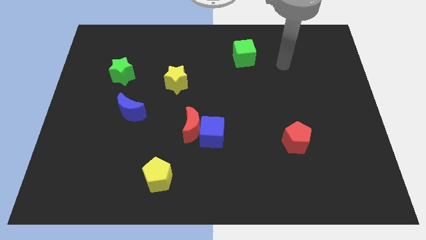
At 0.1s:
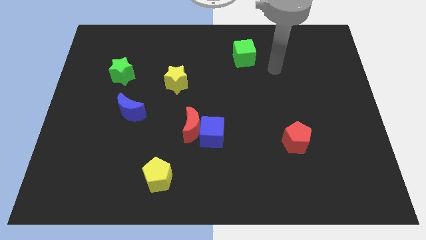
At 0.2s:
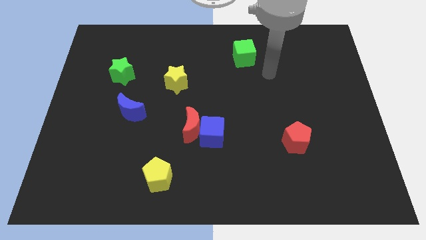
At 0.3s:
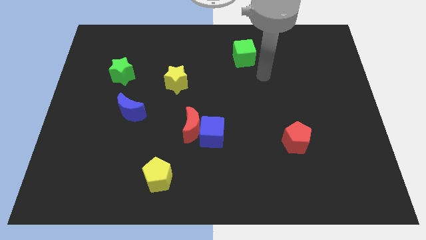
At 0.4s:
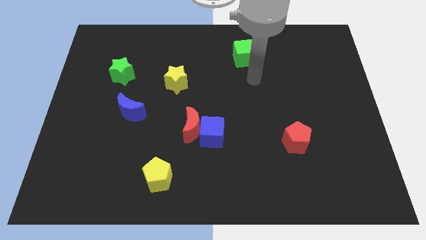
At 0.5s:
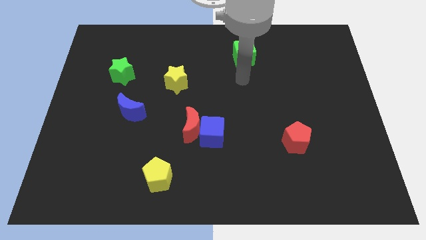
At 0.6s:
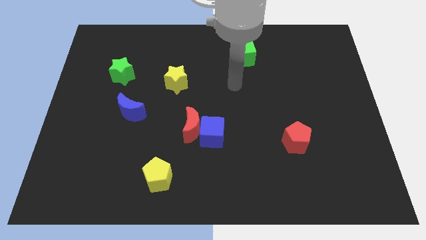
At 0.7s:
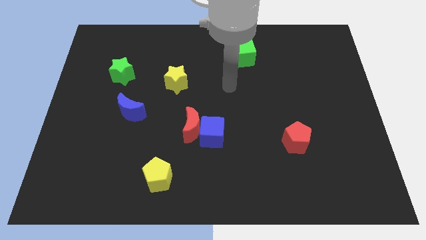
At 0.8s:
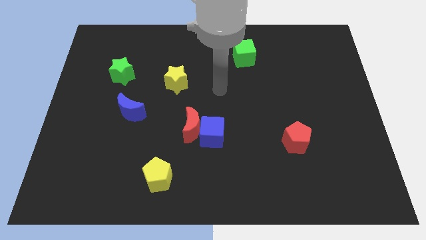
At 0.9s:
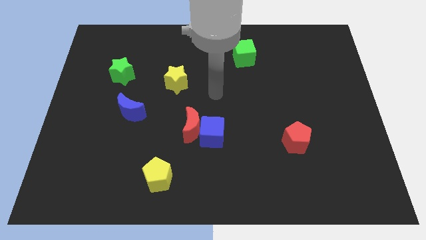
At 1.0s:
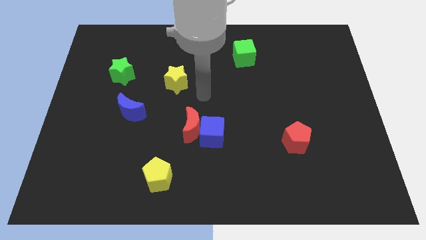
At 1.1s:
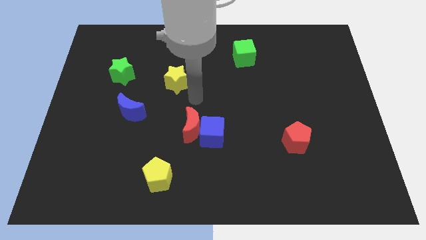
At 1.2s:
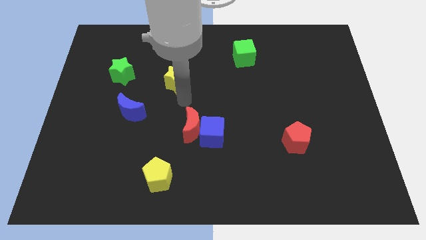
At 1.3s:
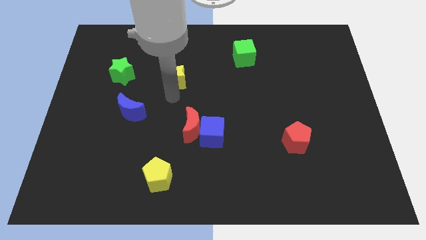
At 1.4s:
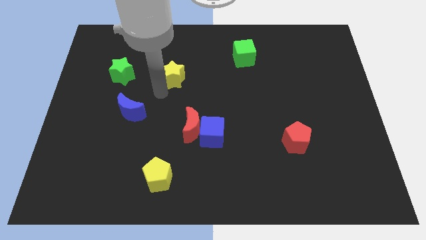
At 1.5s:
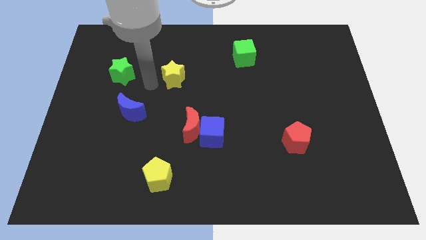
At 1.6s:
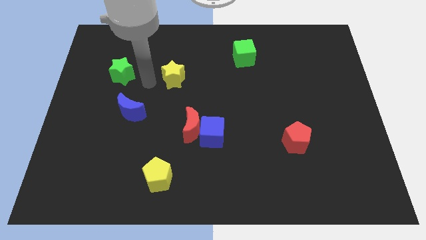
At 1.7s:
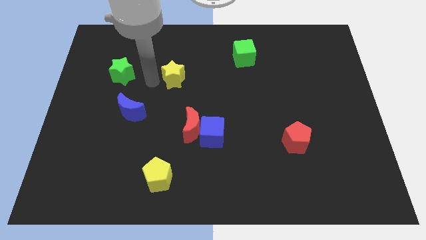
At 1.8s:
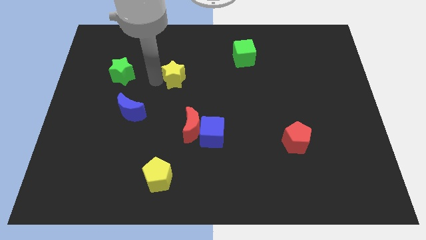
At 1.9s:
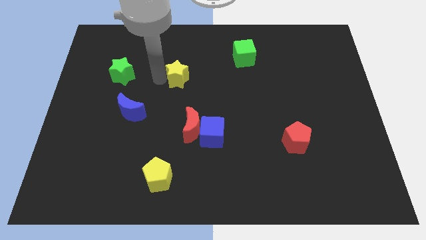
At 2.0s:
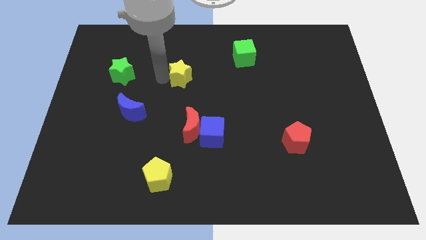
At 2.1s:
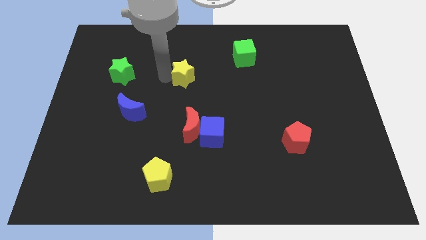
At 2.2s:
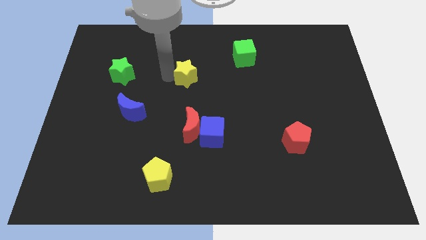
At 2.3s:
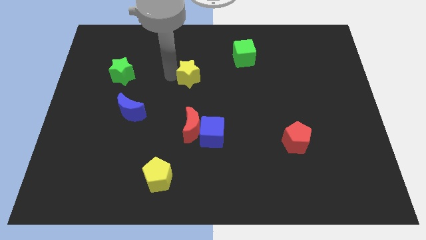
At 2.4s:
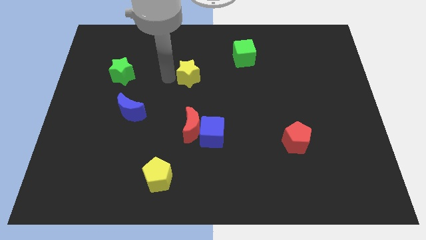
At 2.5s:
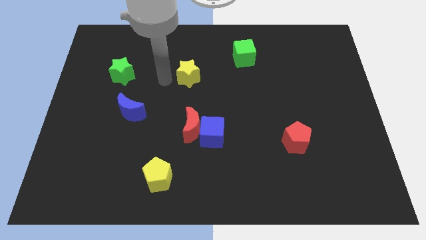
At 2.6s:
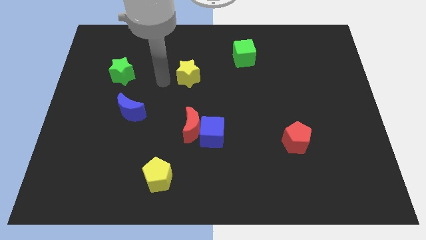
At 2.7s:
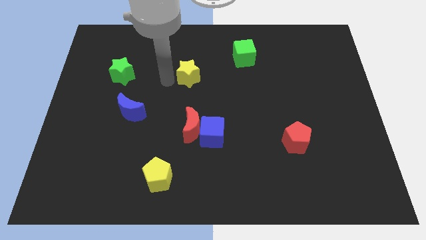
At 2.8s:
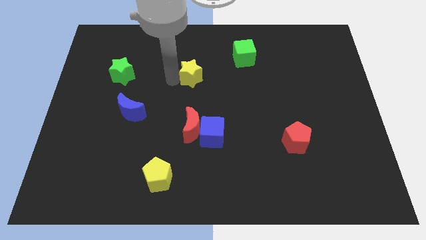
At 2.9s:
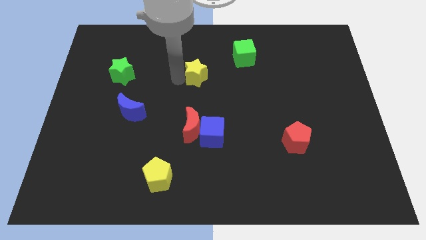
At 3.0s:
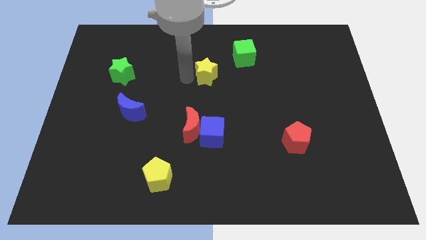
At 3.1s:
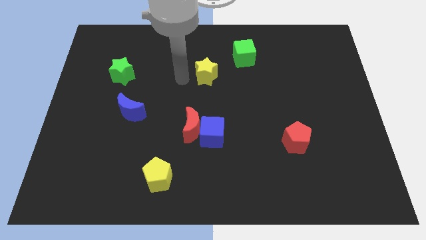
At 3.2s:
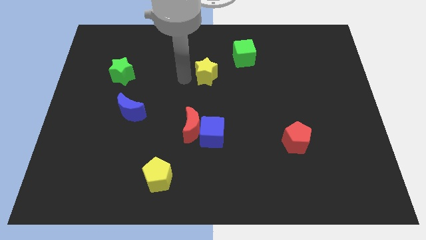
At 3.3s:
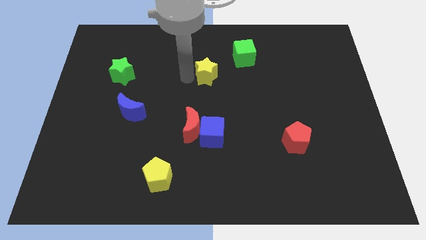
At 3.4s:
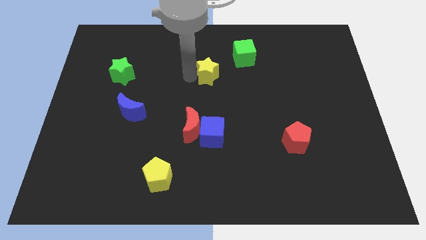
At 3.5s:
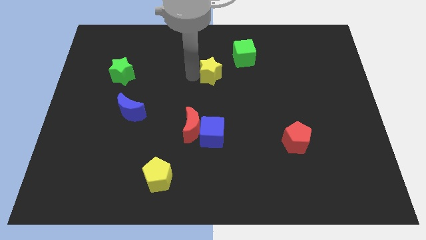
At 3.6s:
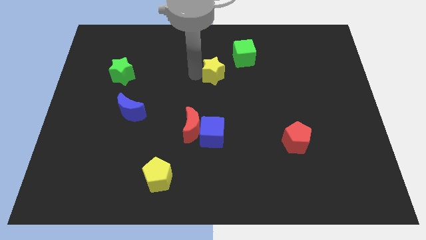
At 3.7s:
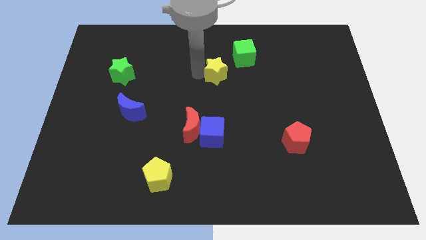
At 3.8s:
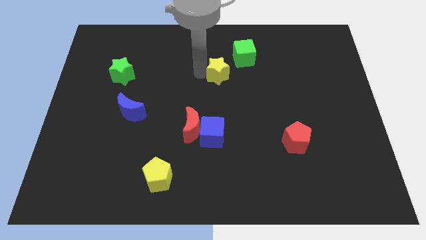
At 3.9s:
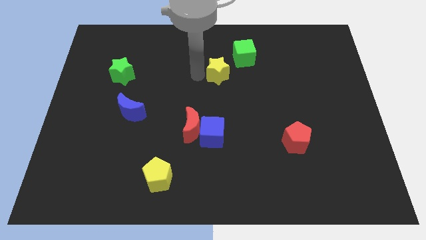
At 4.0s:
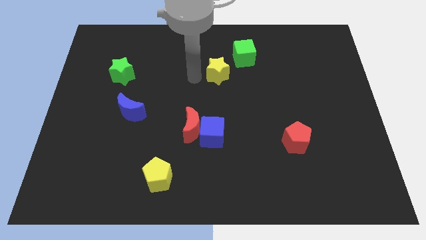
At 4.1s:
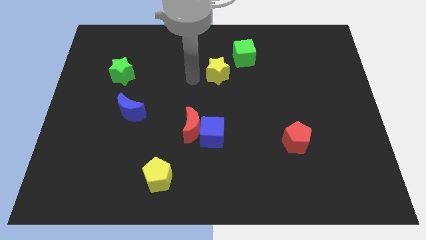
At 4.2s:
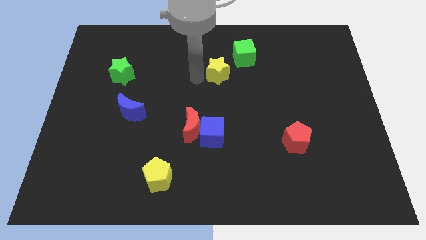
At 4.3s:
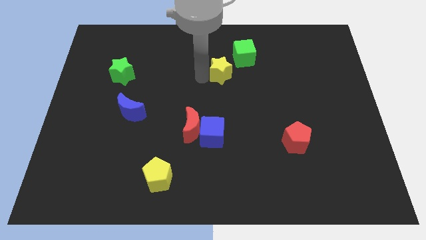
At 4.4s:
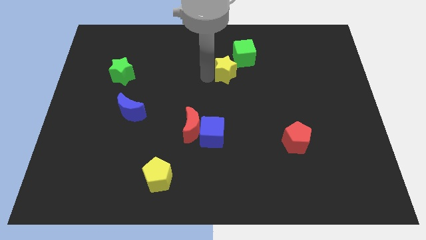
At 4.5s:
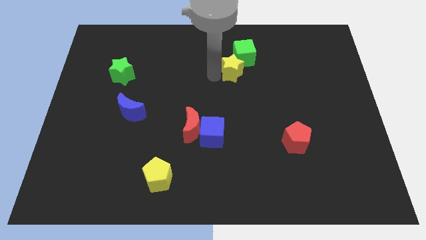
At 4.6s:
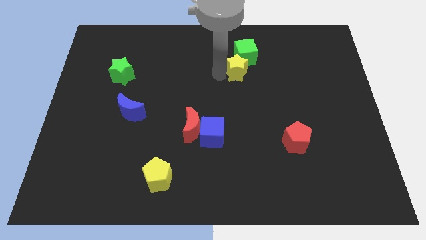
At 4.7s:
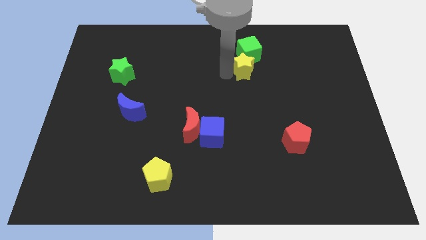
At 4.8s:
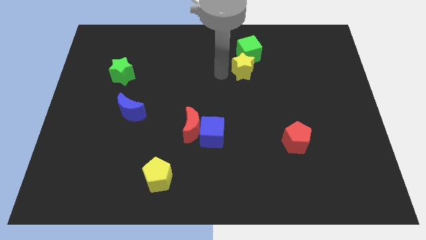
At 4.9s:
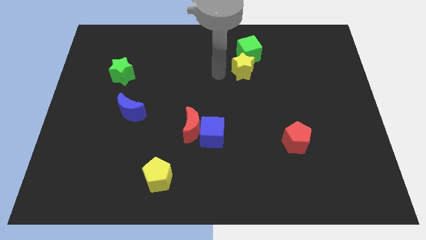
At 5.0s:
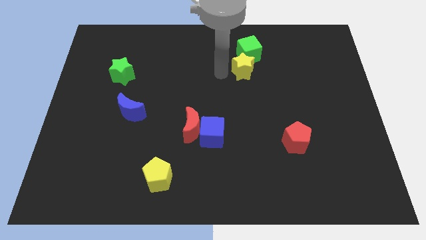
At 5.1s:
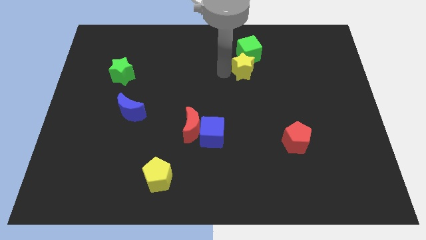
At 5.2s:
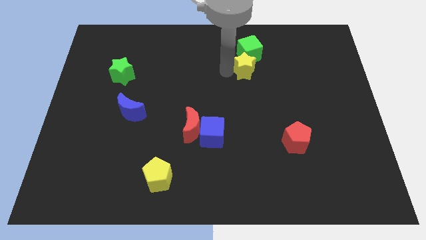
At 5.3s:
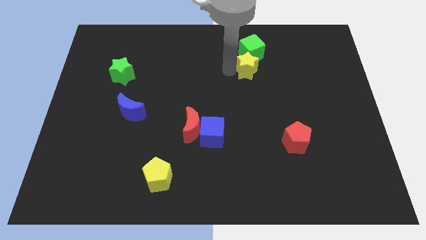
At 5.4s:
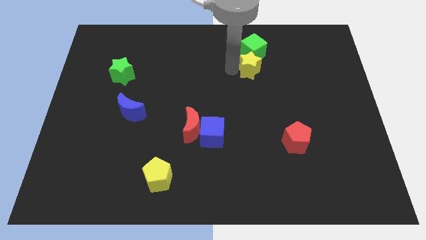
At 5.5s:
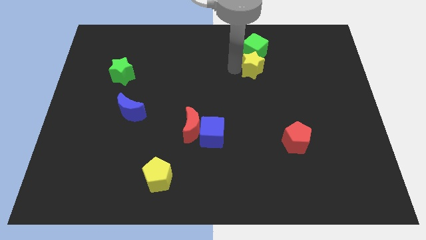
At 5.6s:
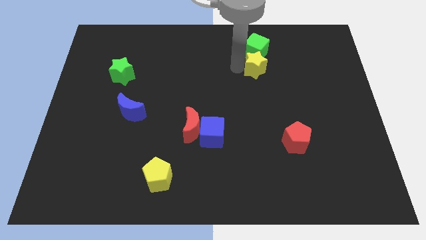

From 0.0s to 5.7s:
put the yellow star to the bottom right side of the green cube

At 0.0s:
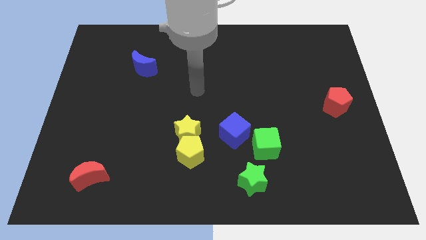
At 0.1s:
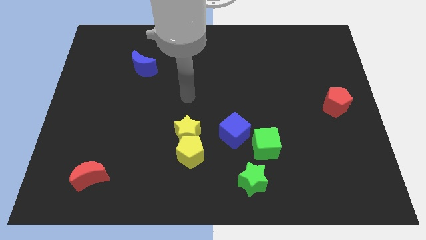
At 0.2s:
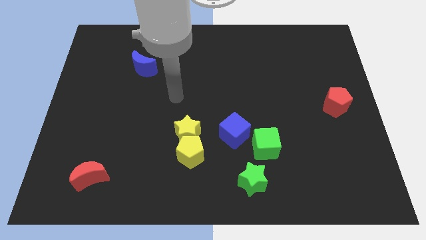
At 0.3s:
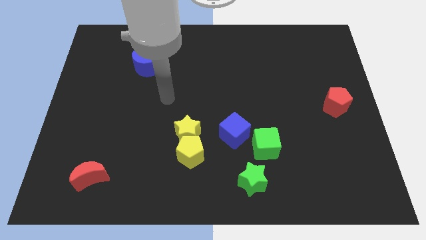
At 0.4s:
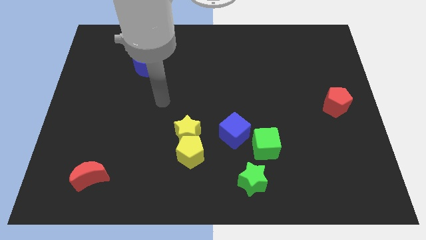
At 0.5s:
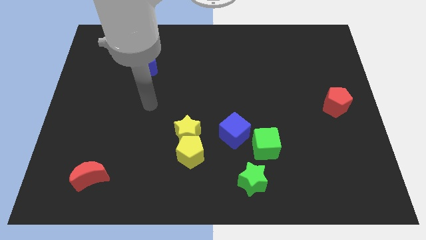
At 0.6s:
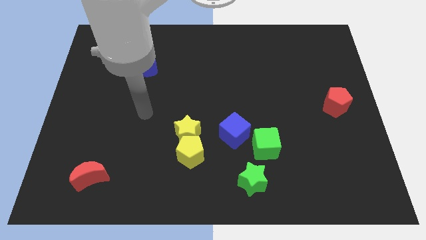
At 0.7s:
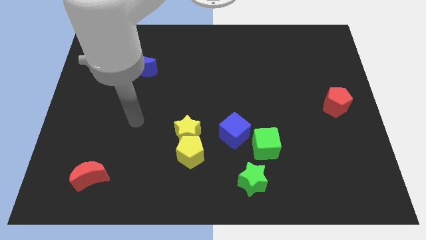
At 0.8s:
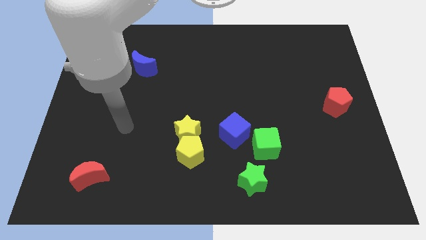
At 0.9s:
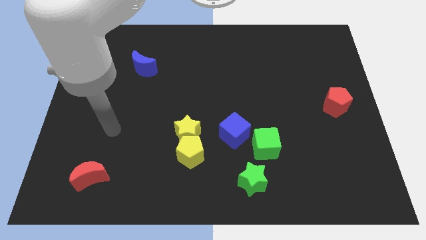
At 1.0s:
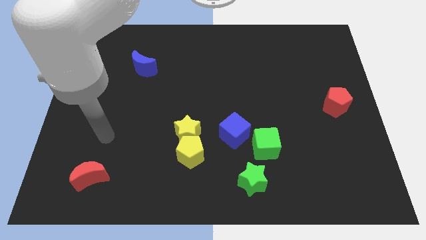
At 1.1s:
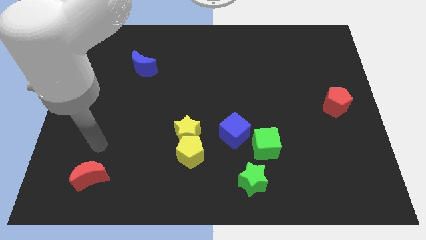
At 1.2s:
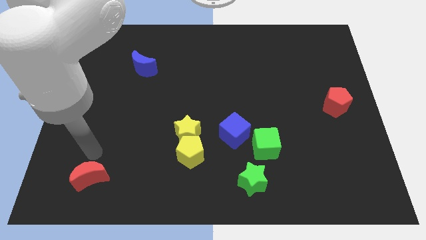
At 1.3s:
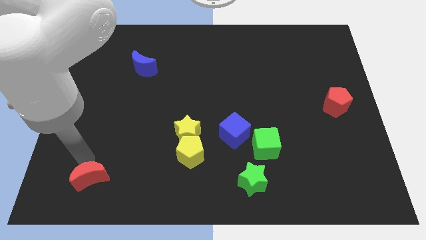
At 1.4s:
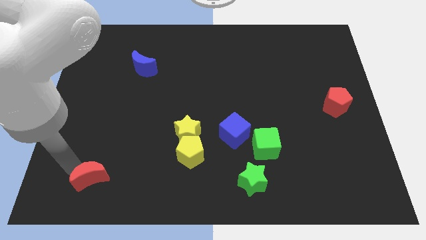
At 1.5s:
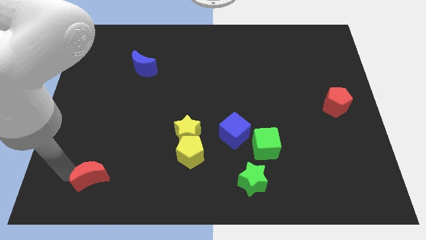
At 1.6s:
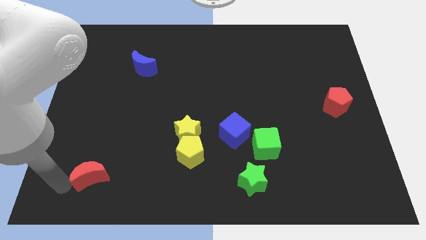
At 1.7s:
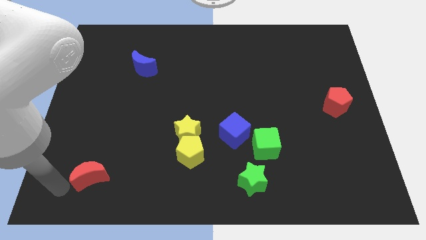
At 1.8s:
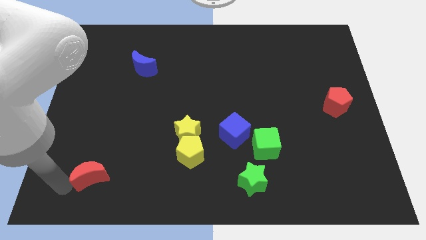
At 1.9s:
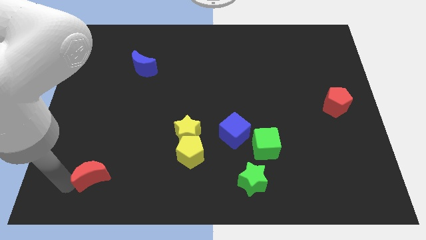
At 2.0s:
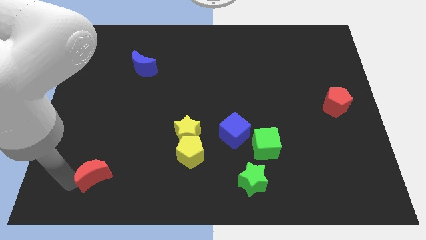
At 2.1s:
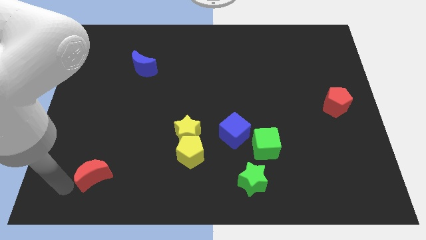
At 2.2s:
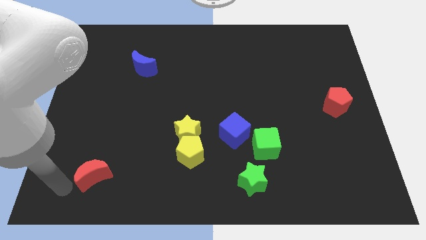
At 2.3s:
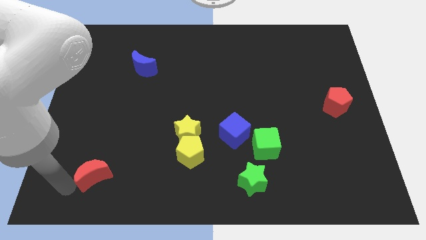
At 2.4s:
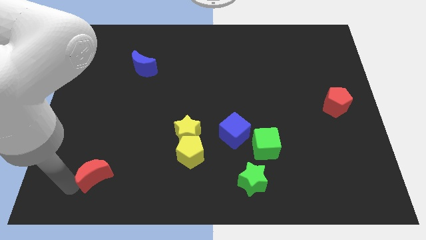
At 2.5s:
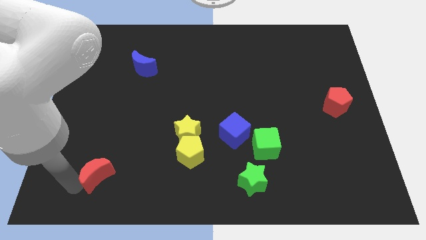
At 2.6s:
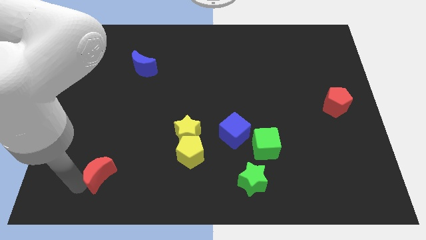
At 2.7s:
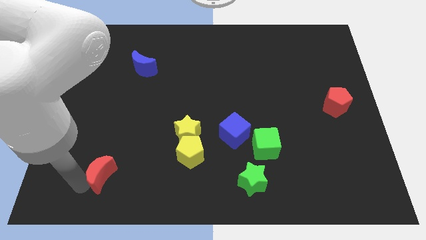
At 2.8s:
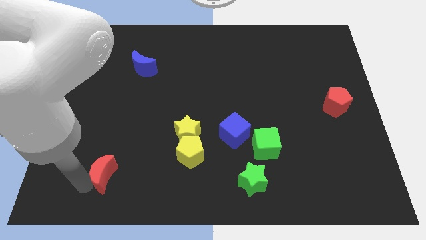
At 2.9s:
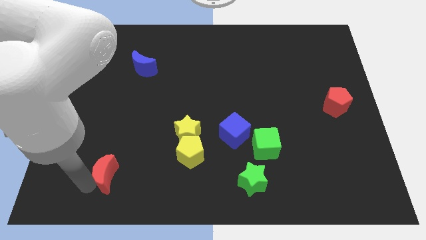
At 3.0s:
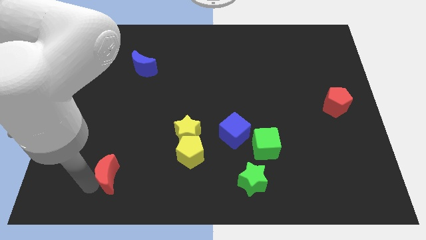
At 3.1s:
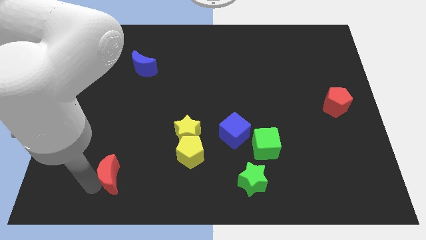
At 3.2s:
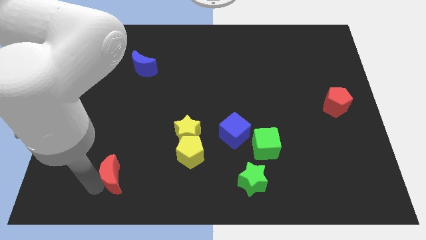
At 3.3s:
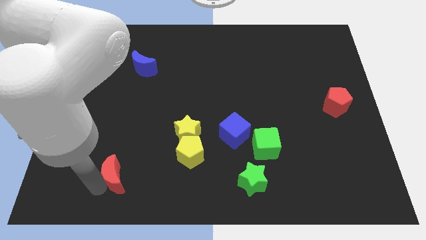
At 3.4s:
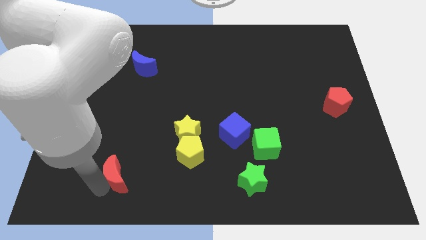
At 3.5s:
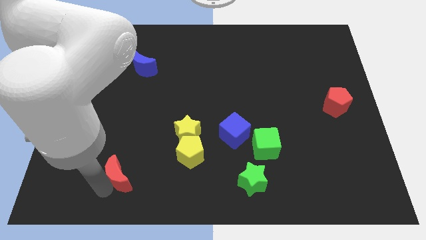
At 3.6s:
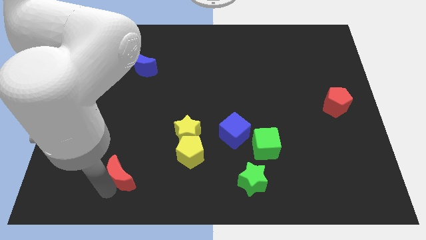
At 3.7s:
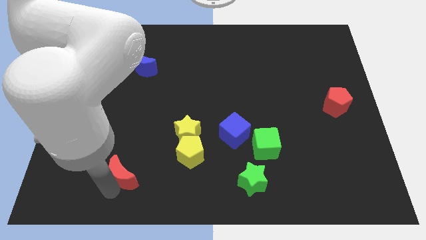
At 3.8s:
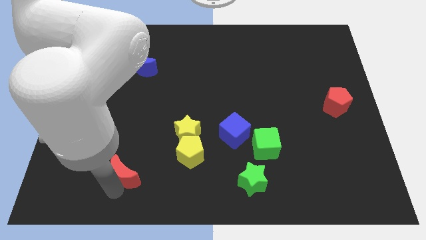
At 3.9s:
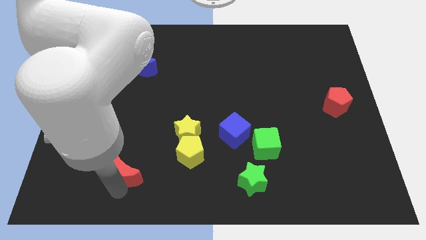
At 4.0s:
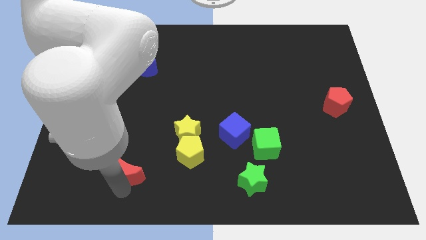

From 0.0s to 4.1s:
push the red moon left of the yellow pentagon
